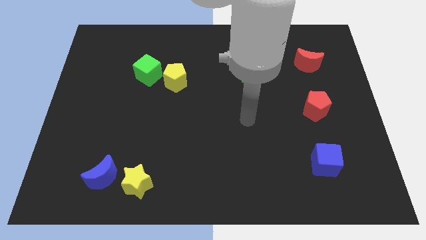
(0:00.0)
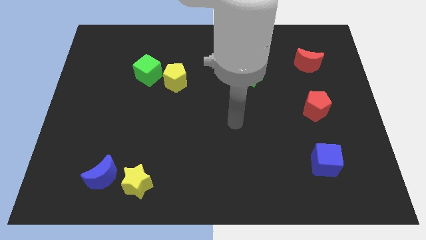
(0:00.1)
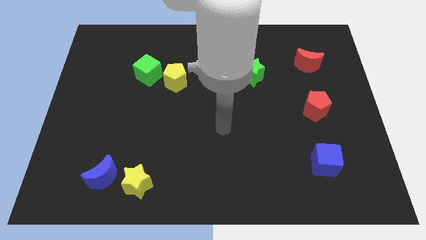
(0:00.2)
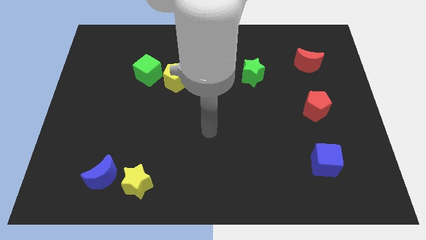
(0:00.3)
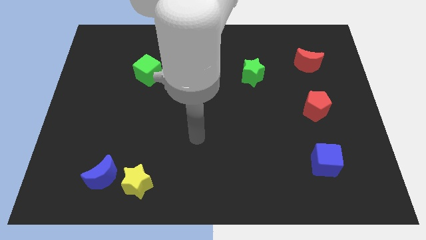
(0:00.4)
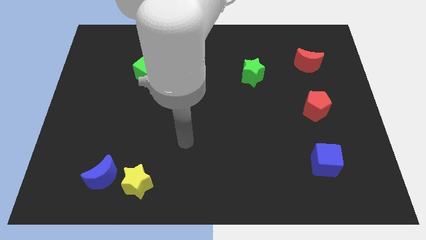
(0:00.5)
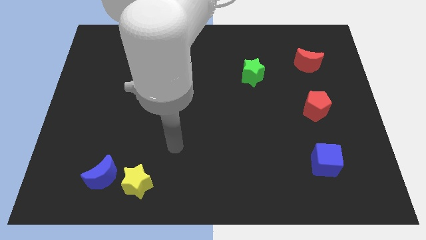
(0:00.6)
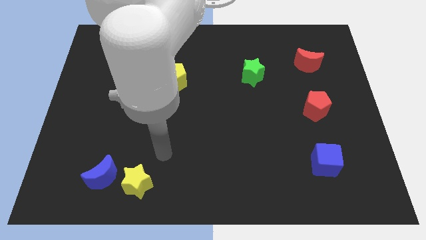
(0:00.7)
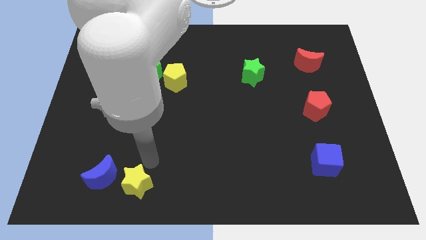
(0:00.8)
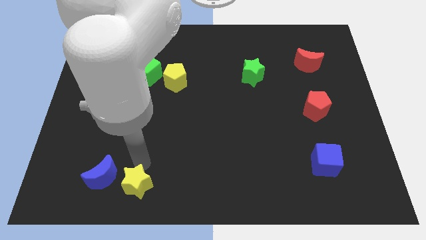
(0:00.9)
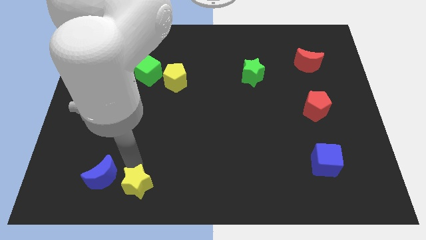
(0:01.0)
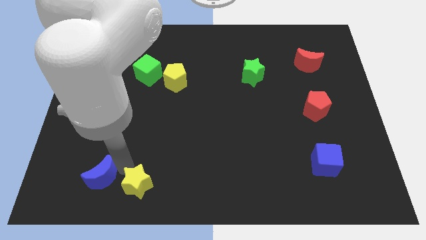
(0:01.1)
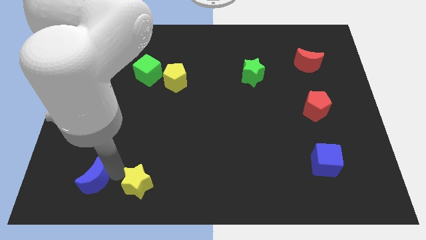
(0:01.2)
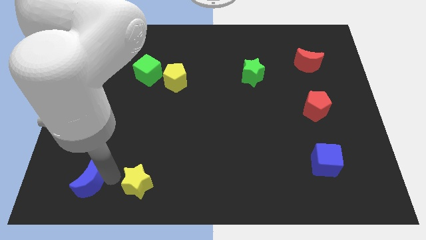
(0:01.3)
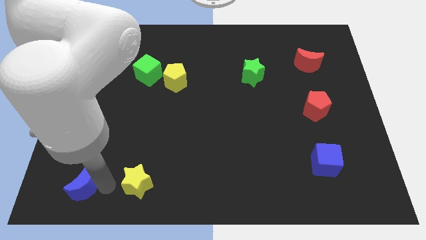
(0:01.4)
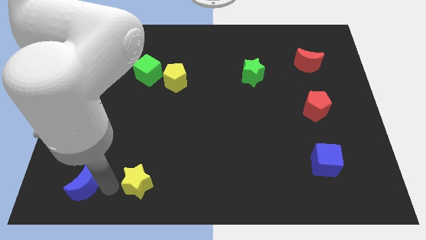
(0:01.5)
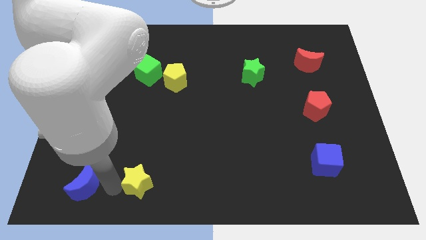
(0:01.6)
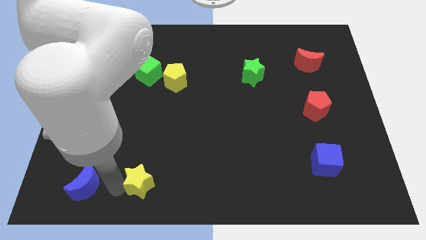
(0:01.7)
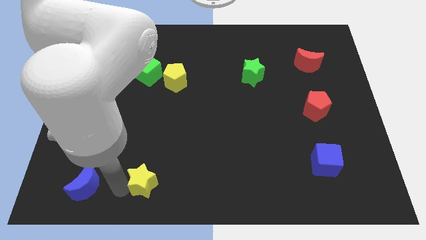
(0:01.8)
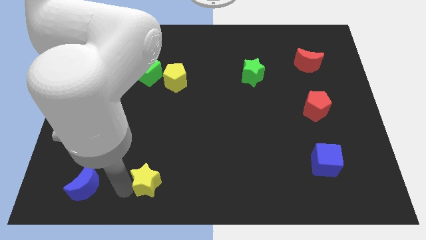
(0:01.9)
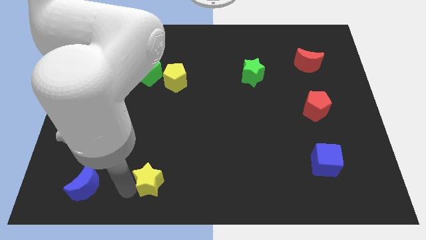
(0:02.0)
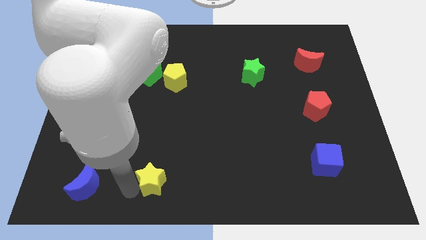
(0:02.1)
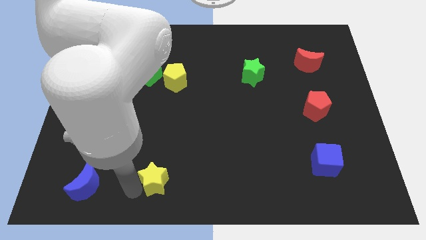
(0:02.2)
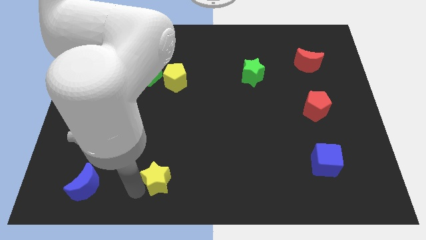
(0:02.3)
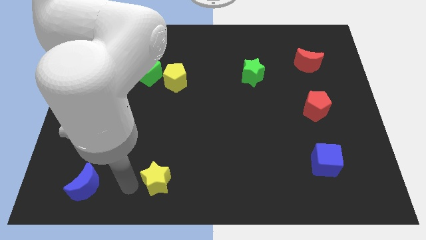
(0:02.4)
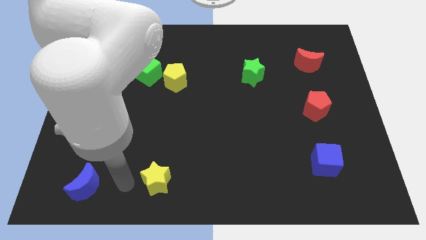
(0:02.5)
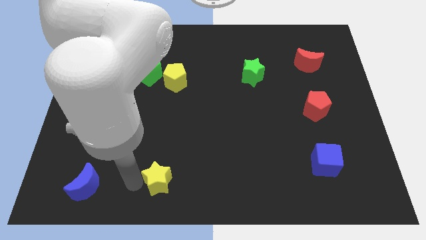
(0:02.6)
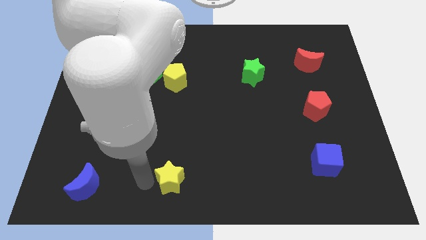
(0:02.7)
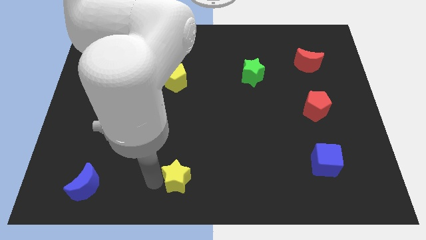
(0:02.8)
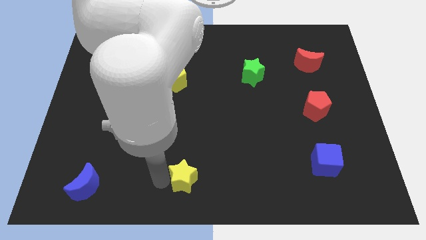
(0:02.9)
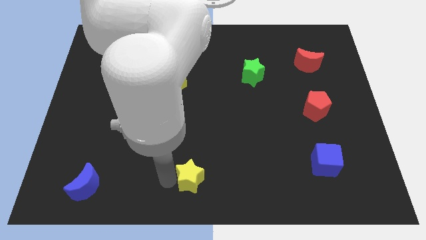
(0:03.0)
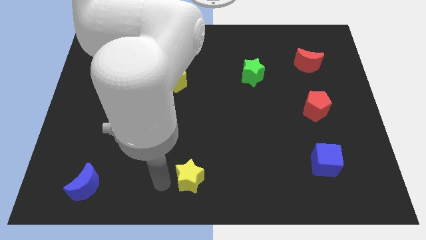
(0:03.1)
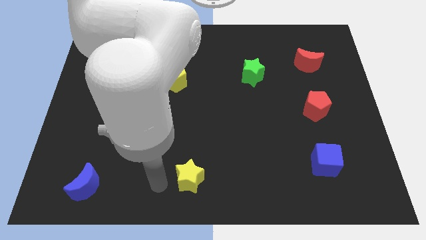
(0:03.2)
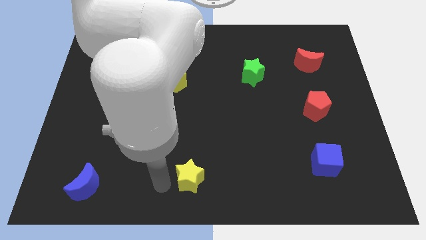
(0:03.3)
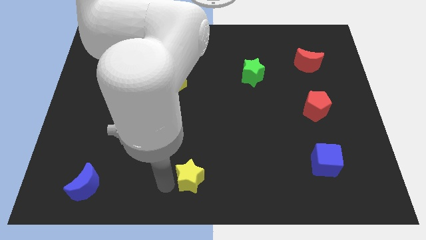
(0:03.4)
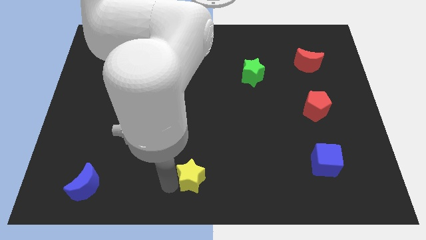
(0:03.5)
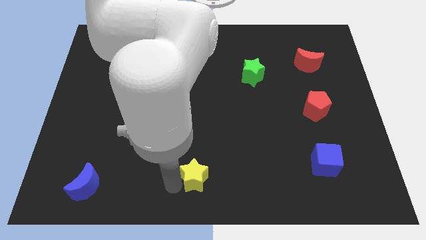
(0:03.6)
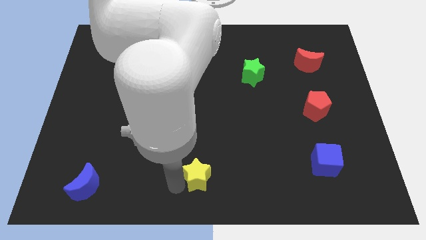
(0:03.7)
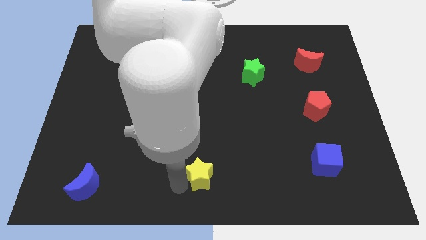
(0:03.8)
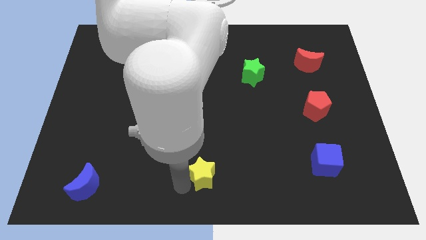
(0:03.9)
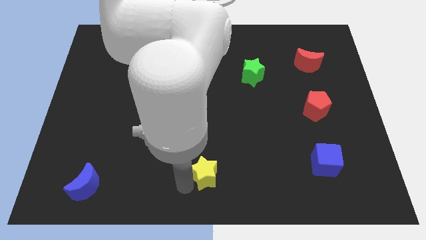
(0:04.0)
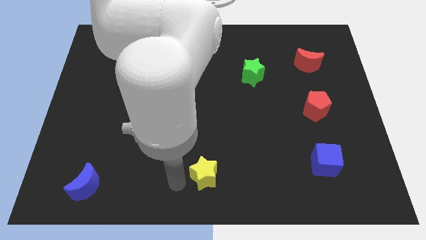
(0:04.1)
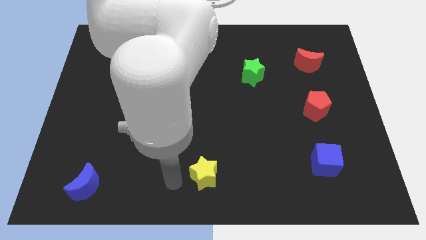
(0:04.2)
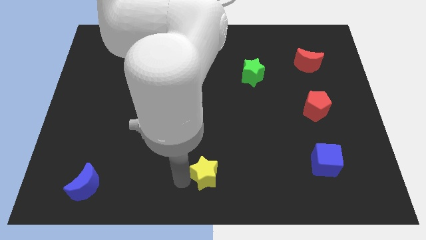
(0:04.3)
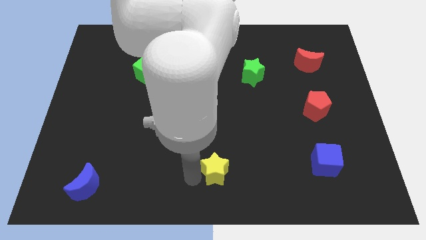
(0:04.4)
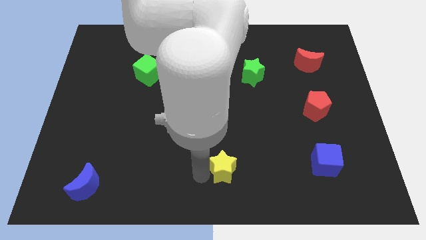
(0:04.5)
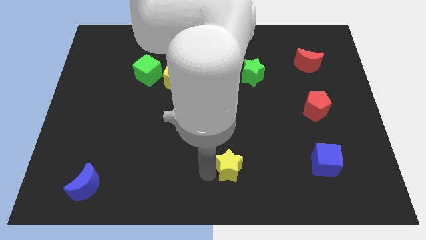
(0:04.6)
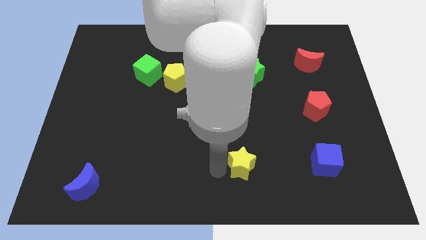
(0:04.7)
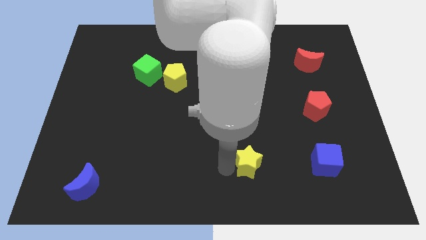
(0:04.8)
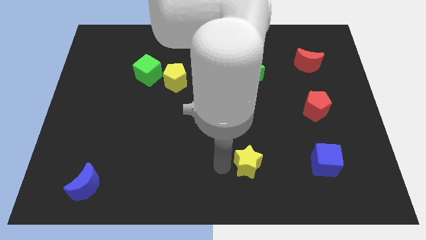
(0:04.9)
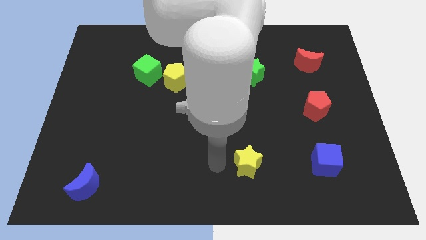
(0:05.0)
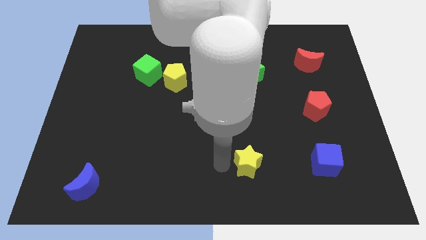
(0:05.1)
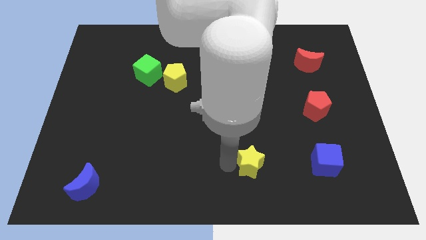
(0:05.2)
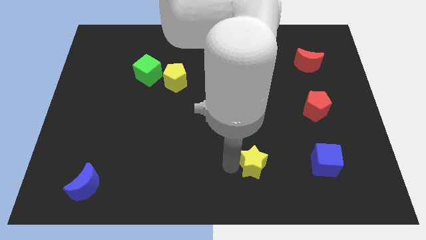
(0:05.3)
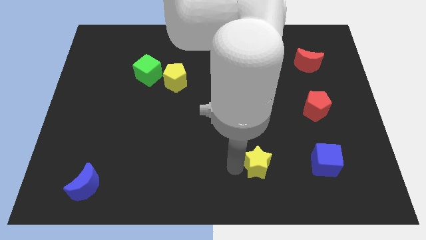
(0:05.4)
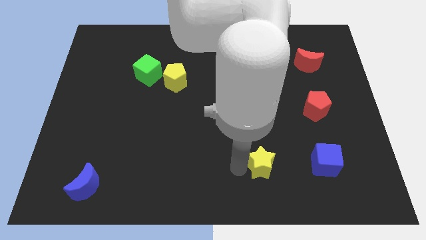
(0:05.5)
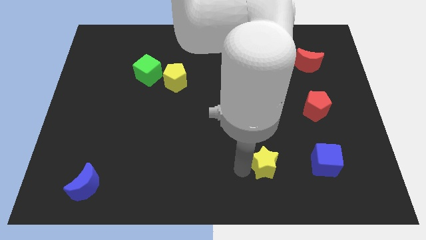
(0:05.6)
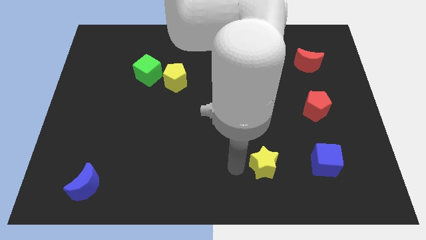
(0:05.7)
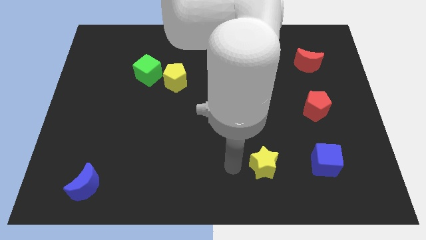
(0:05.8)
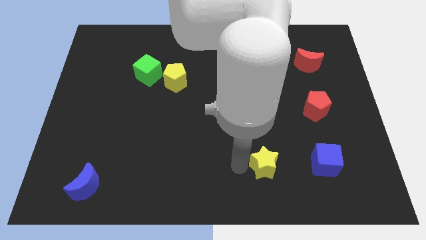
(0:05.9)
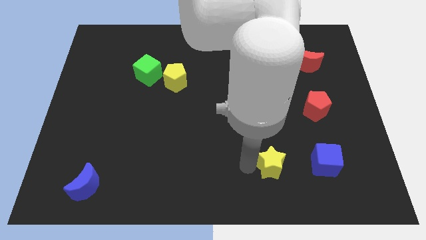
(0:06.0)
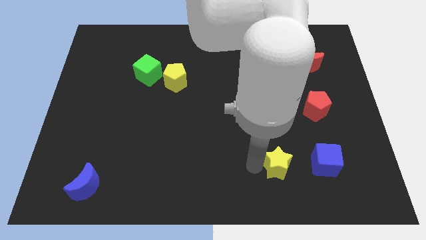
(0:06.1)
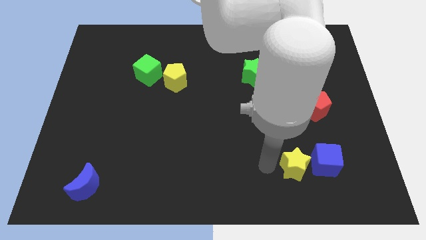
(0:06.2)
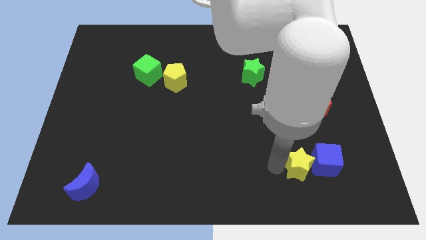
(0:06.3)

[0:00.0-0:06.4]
slide the yellow star close to the blue cube

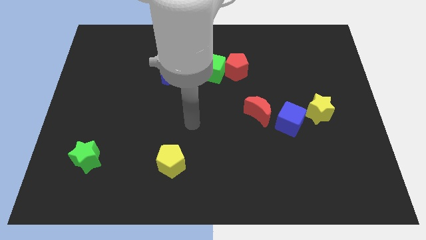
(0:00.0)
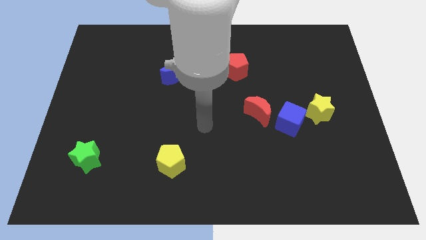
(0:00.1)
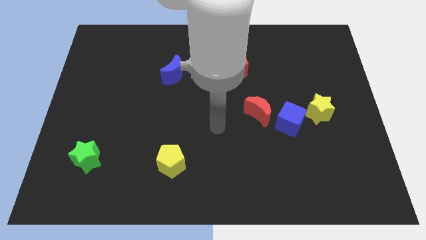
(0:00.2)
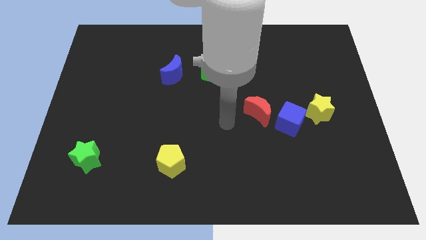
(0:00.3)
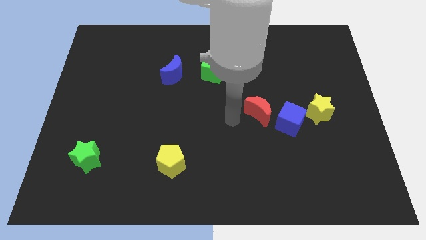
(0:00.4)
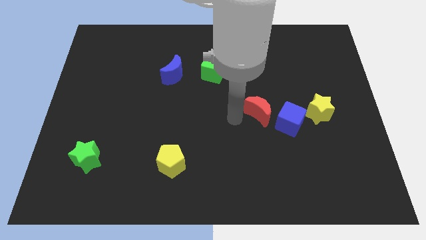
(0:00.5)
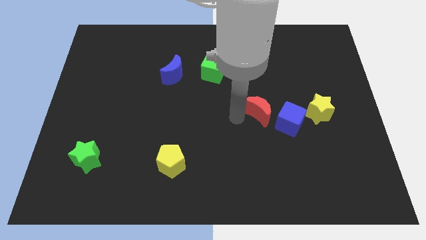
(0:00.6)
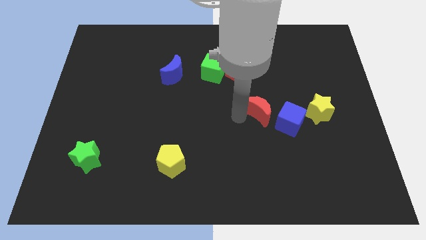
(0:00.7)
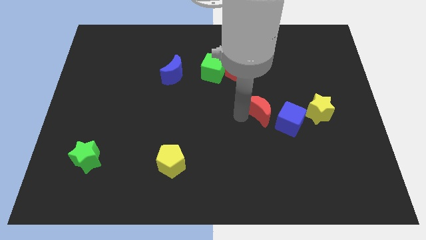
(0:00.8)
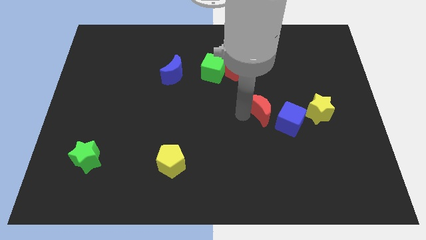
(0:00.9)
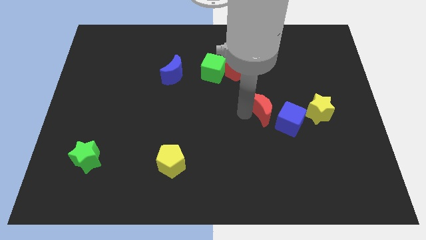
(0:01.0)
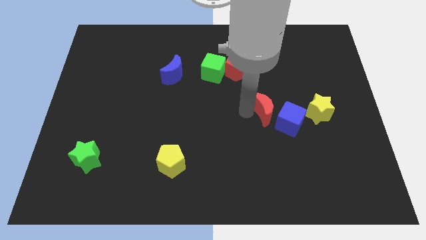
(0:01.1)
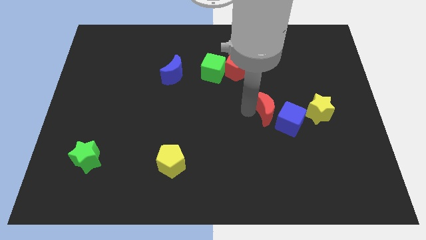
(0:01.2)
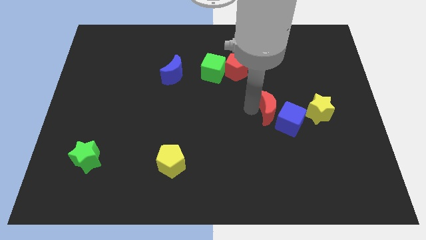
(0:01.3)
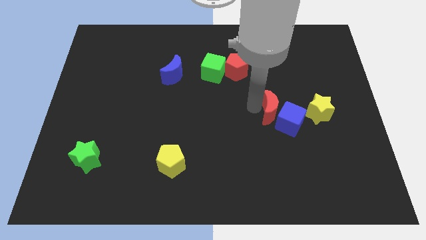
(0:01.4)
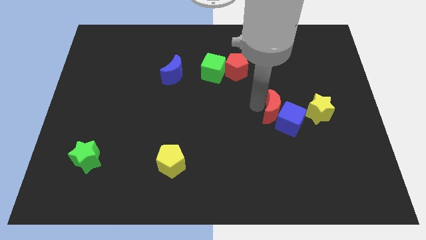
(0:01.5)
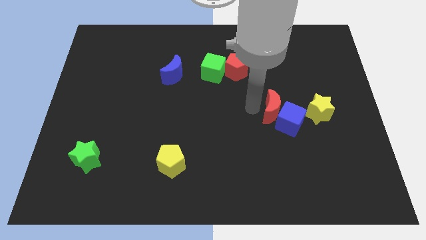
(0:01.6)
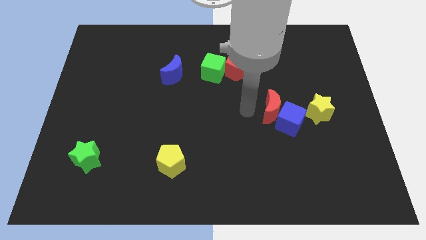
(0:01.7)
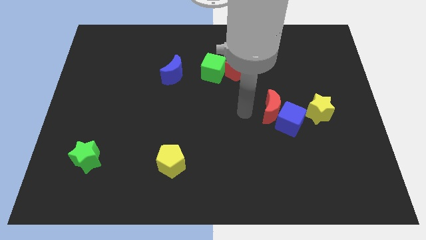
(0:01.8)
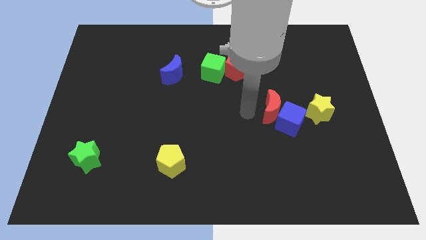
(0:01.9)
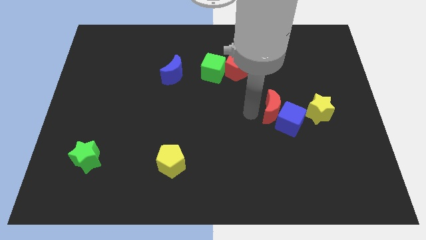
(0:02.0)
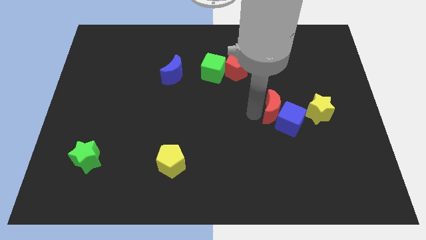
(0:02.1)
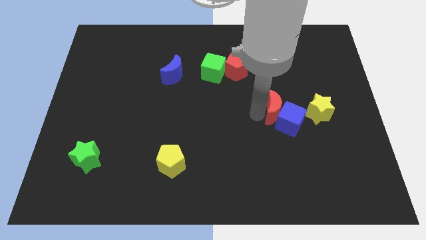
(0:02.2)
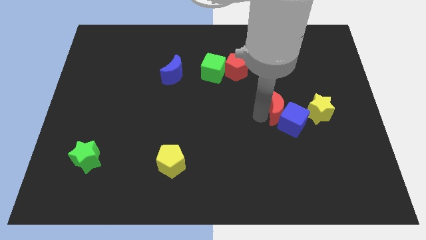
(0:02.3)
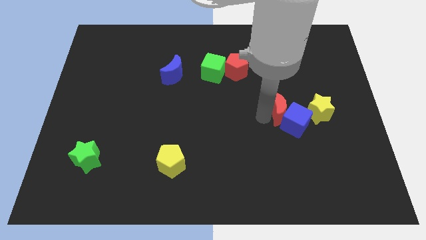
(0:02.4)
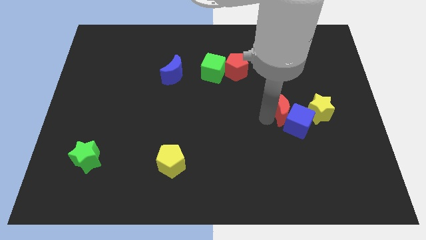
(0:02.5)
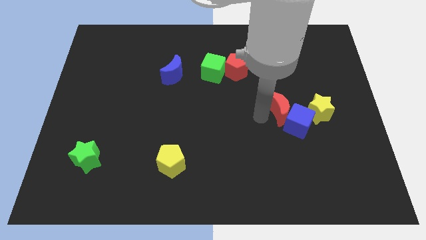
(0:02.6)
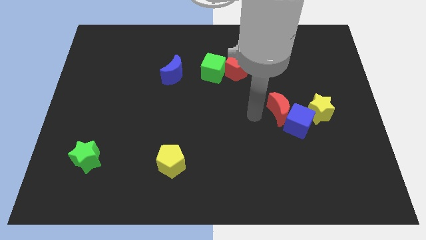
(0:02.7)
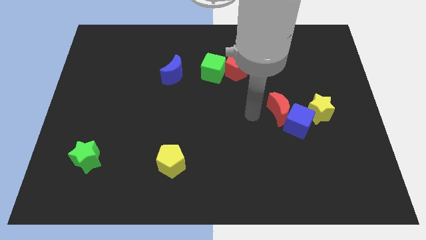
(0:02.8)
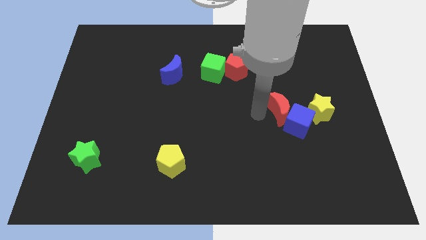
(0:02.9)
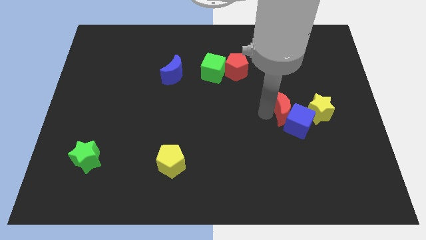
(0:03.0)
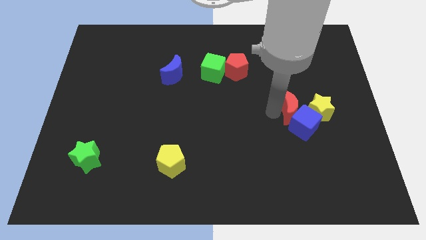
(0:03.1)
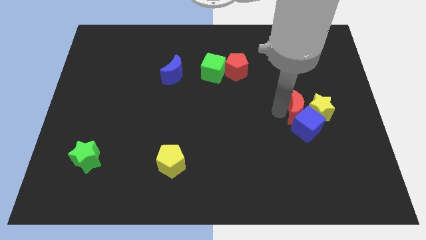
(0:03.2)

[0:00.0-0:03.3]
push the red moon towards the yellow star
